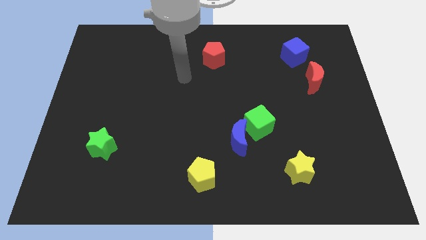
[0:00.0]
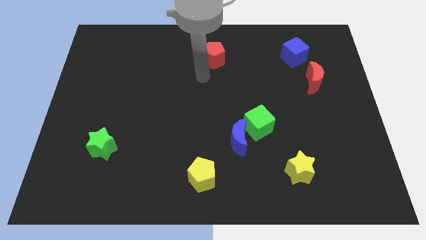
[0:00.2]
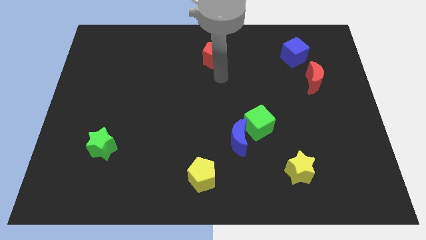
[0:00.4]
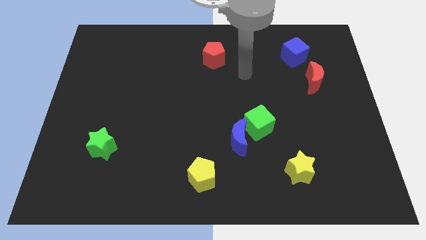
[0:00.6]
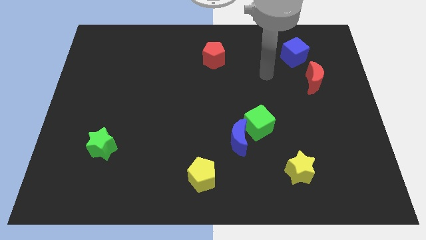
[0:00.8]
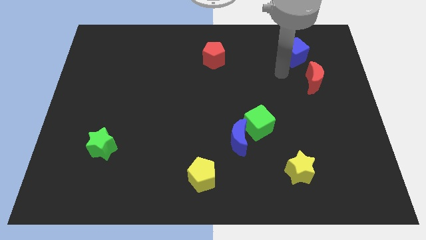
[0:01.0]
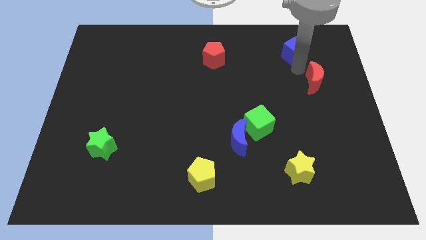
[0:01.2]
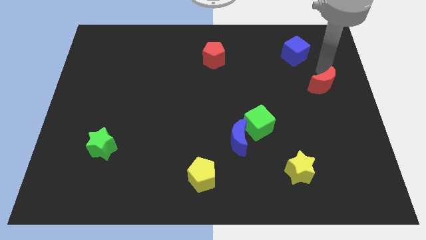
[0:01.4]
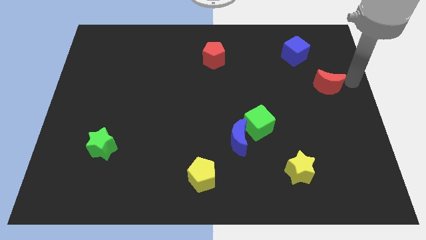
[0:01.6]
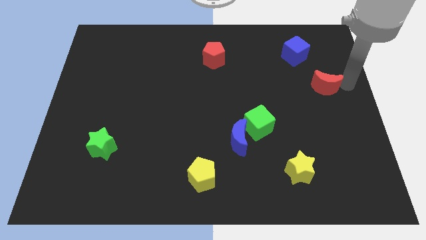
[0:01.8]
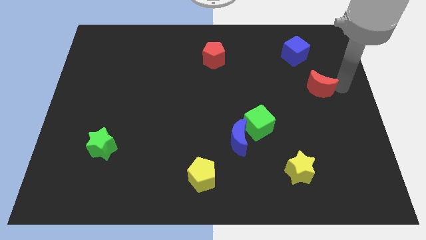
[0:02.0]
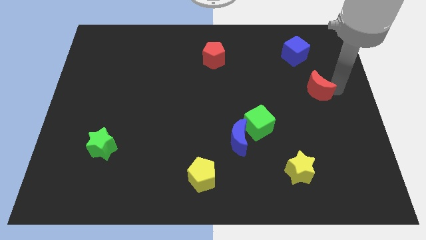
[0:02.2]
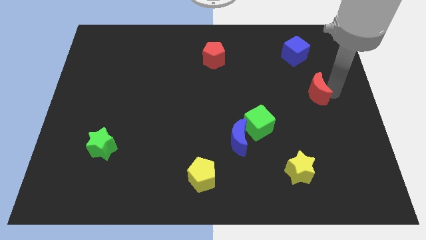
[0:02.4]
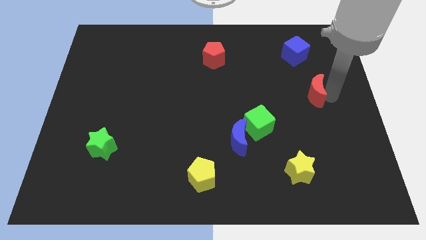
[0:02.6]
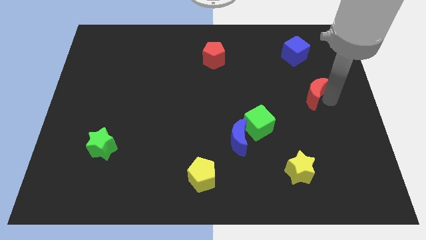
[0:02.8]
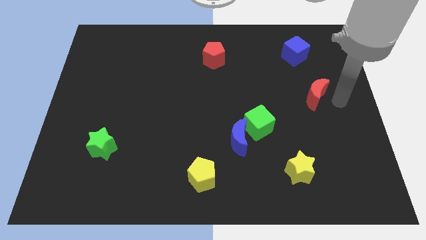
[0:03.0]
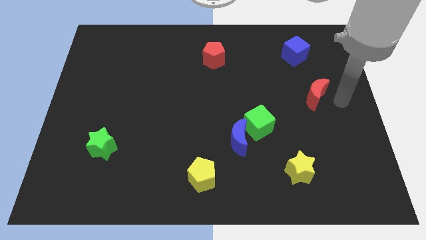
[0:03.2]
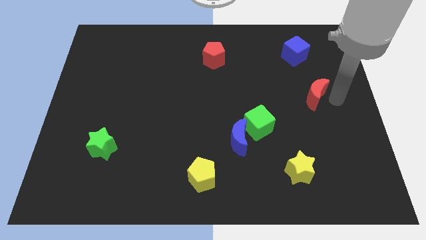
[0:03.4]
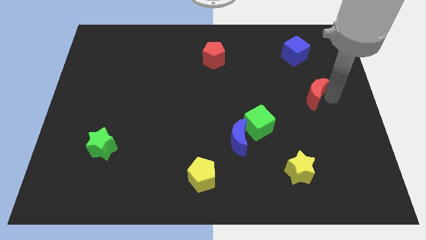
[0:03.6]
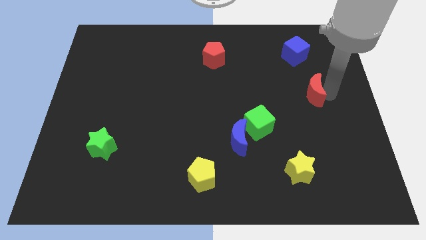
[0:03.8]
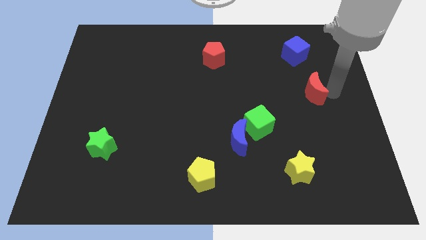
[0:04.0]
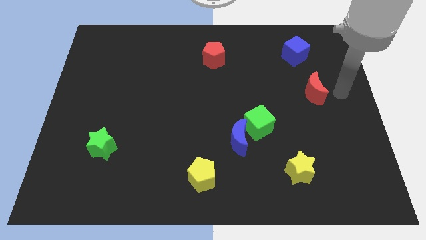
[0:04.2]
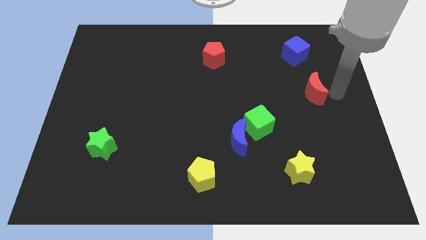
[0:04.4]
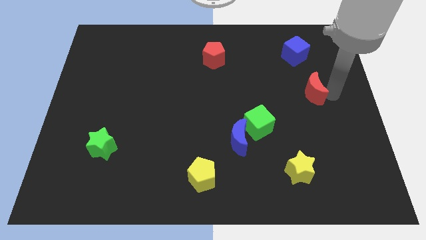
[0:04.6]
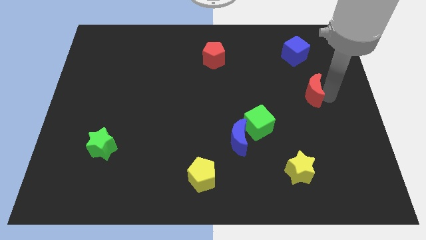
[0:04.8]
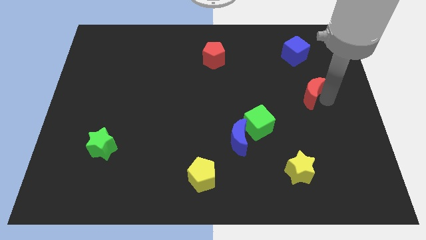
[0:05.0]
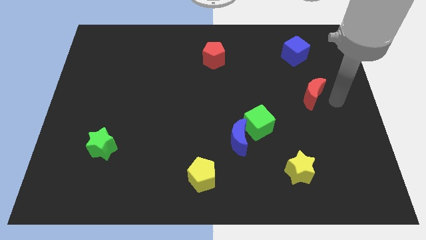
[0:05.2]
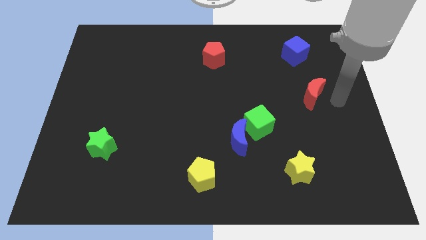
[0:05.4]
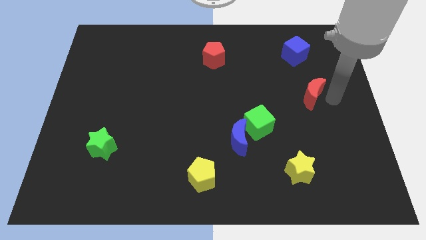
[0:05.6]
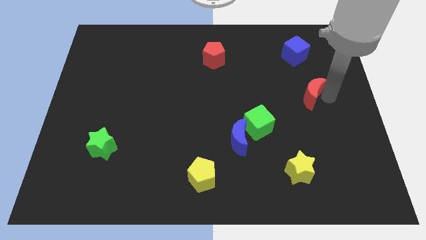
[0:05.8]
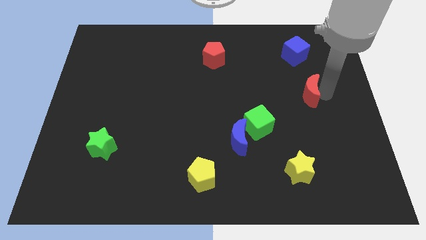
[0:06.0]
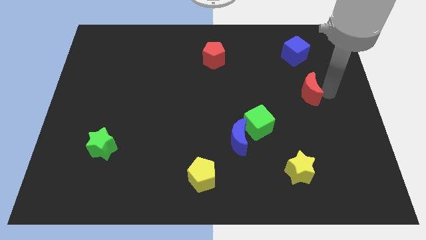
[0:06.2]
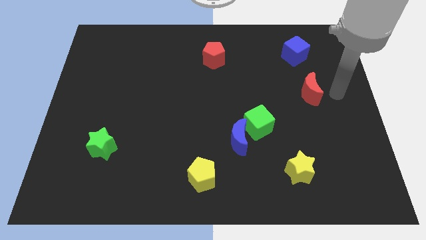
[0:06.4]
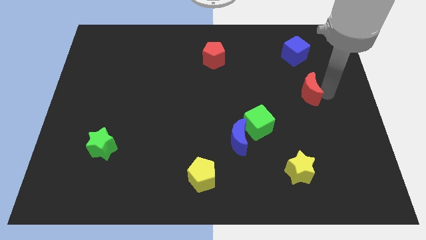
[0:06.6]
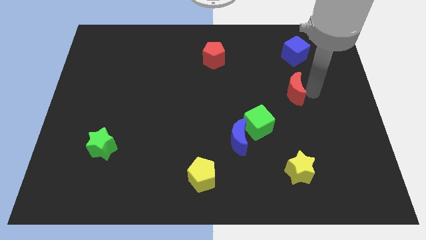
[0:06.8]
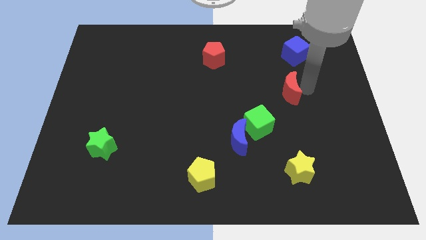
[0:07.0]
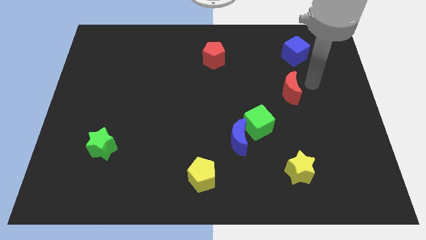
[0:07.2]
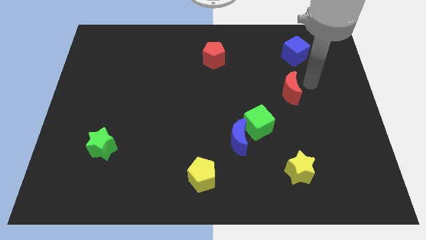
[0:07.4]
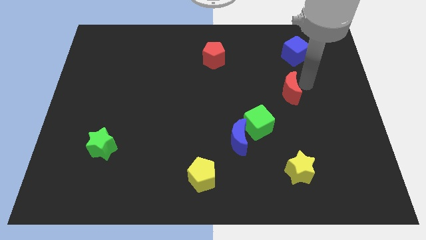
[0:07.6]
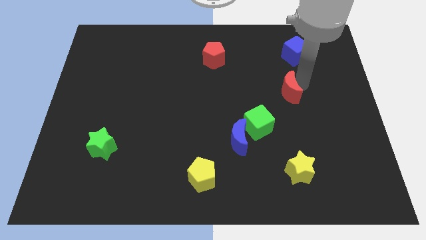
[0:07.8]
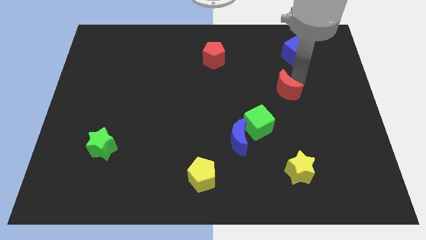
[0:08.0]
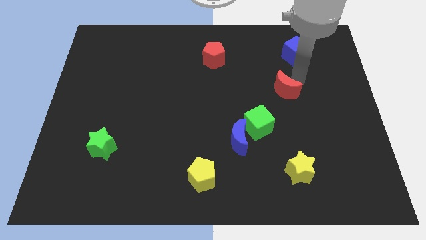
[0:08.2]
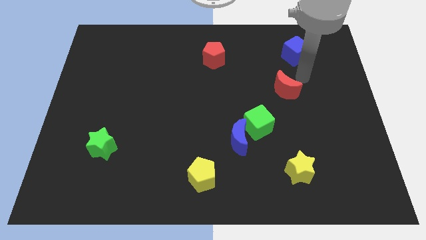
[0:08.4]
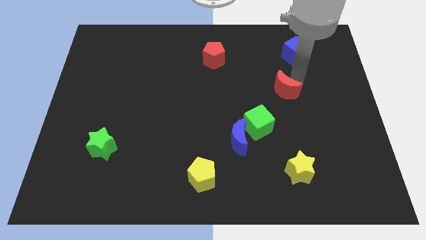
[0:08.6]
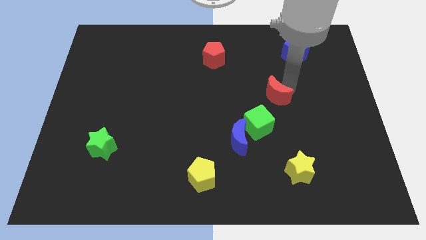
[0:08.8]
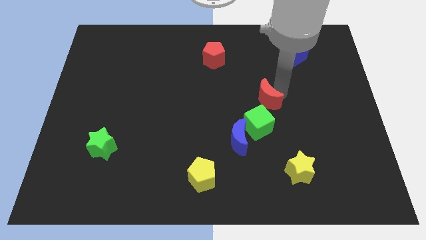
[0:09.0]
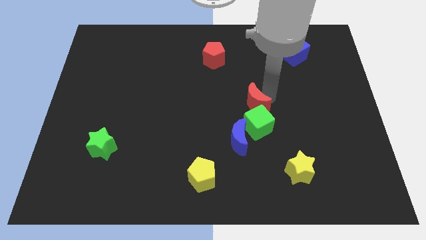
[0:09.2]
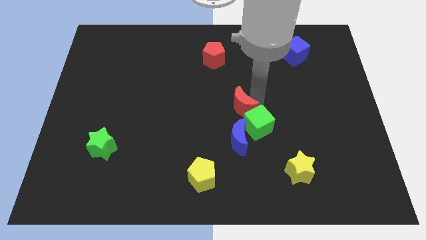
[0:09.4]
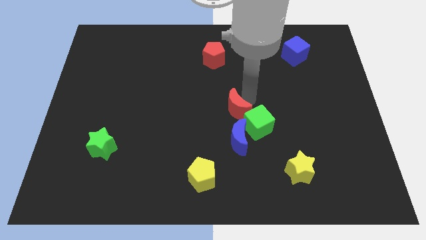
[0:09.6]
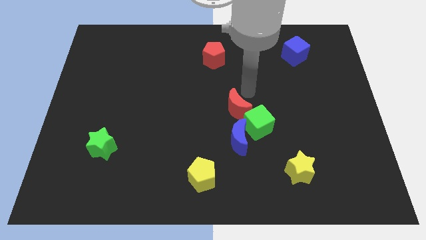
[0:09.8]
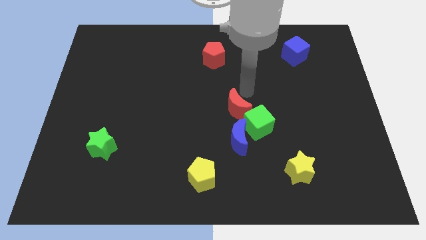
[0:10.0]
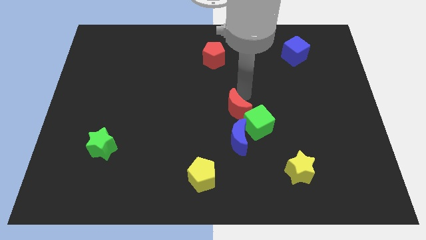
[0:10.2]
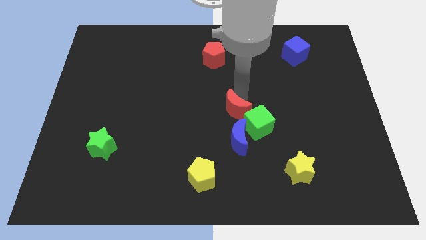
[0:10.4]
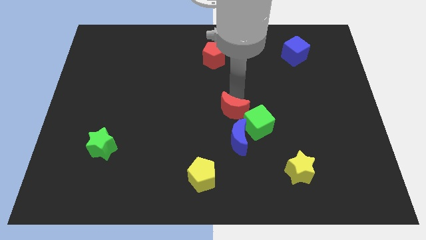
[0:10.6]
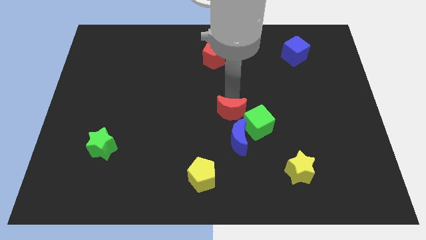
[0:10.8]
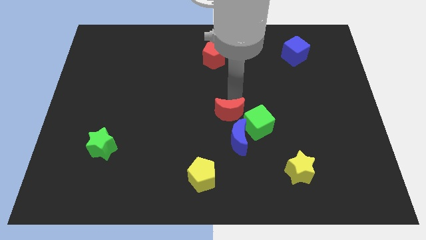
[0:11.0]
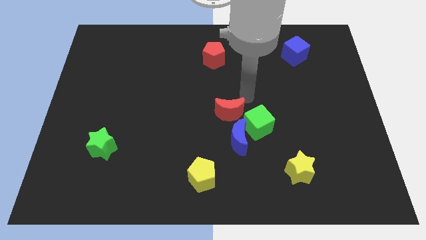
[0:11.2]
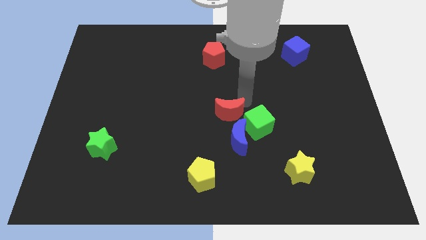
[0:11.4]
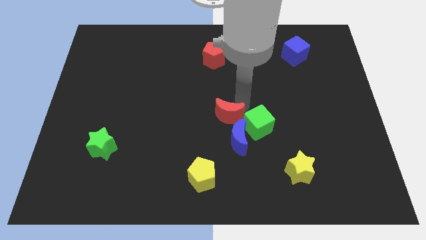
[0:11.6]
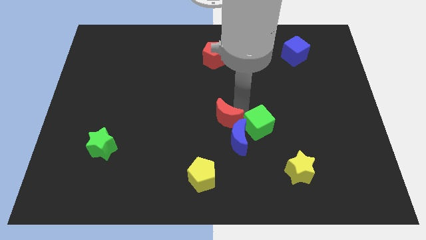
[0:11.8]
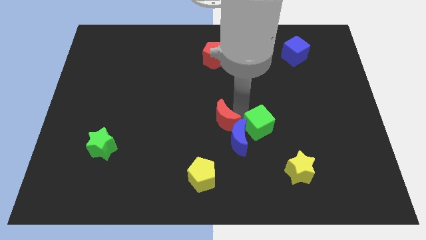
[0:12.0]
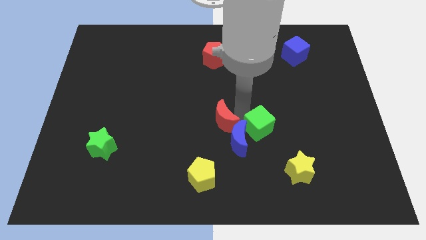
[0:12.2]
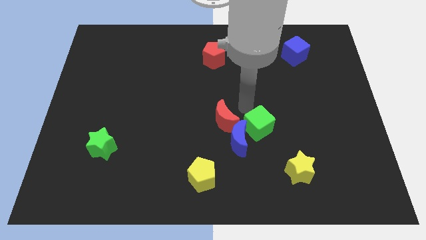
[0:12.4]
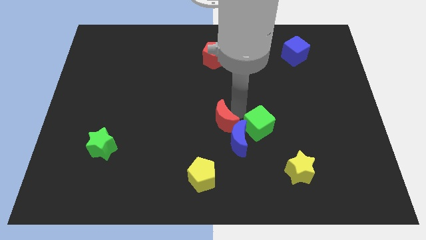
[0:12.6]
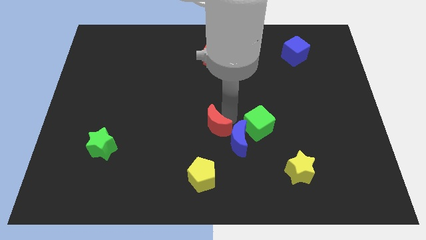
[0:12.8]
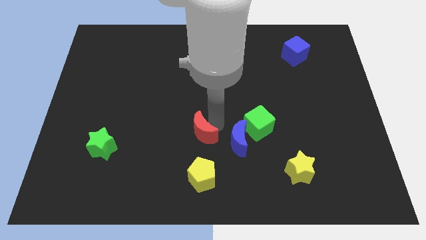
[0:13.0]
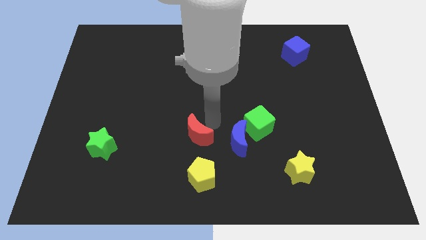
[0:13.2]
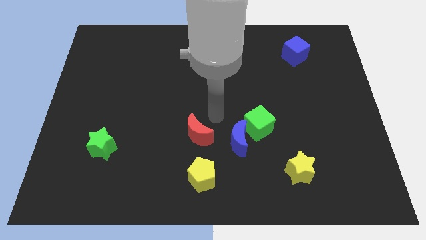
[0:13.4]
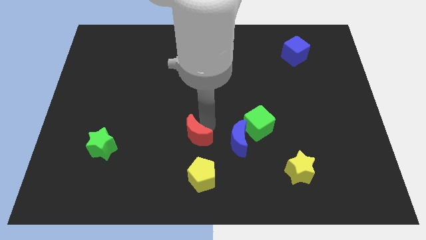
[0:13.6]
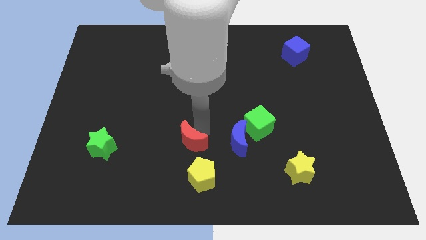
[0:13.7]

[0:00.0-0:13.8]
put the red moon to the top left of the yellow pentagon
